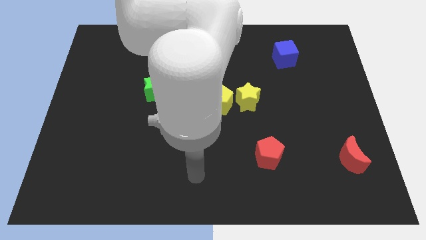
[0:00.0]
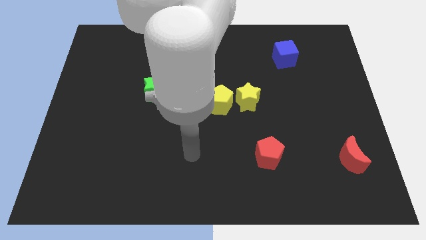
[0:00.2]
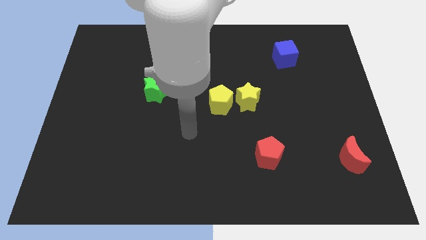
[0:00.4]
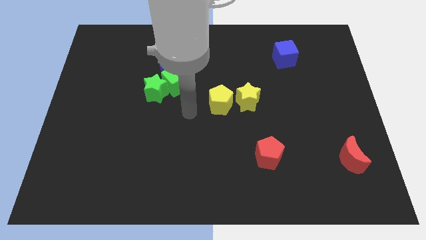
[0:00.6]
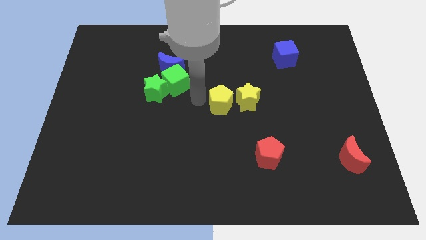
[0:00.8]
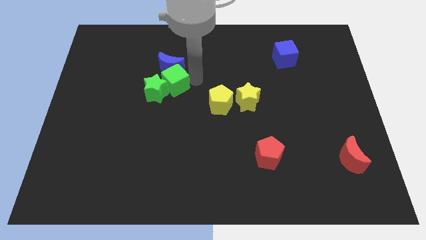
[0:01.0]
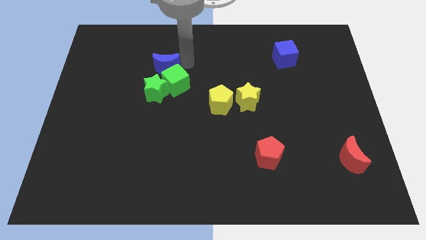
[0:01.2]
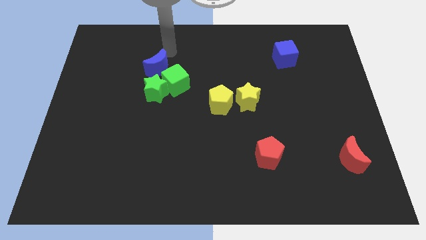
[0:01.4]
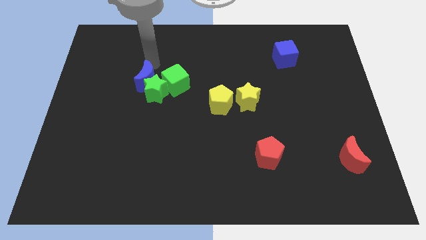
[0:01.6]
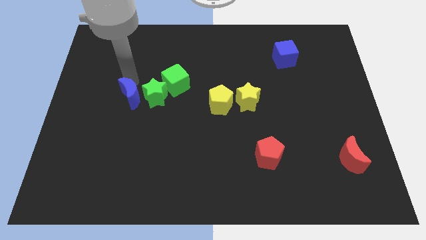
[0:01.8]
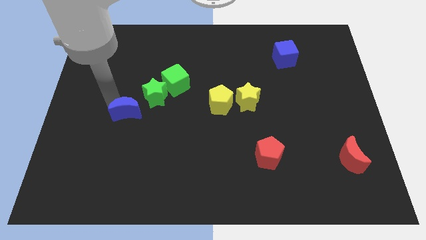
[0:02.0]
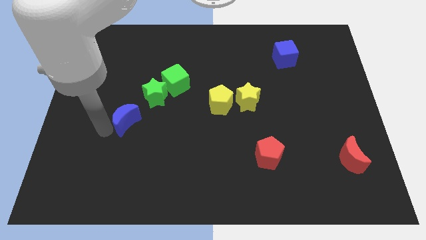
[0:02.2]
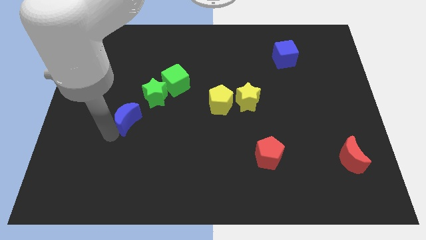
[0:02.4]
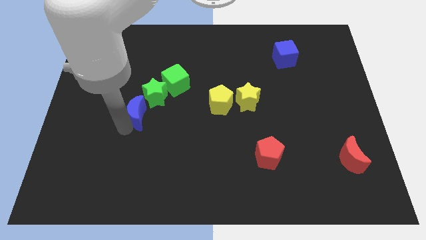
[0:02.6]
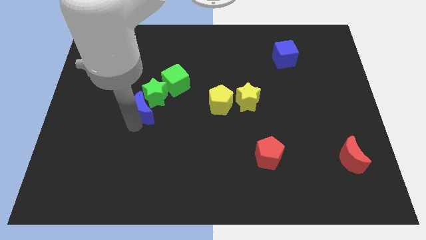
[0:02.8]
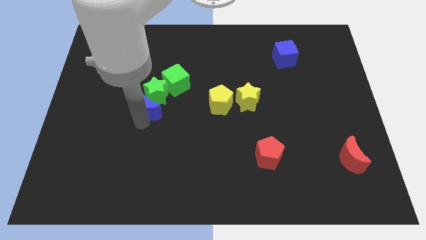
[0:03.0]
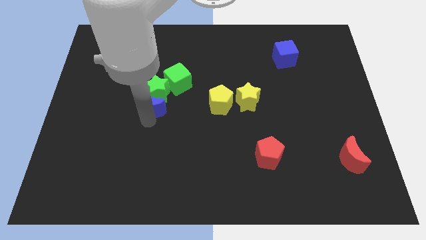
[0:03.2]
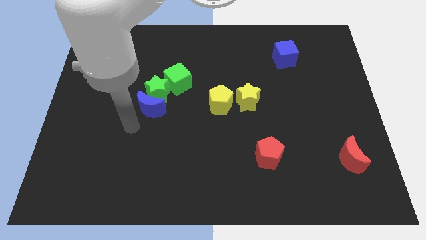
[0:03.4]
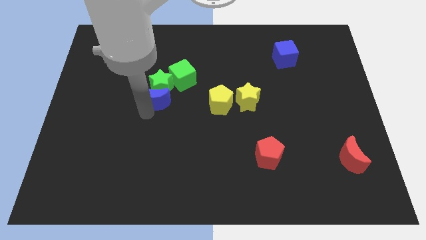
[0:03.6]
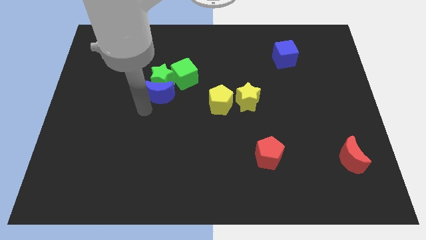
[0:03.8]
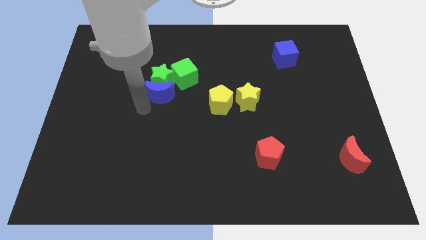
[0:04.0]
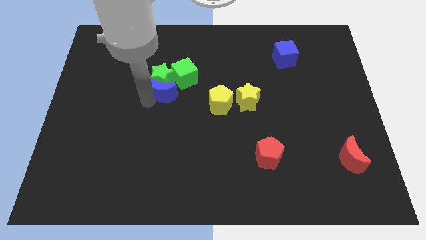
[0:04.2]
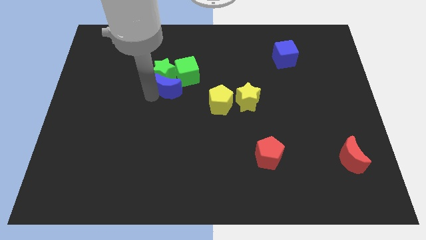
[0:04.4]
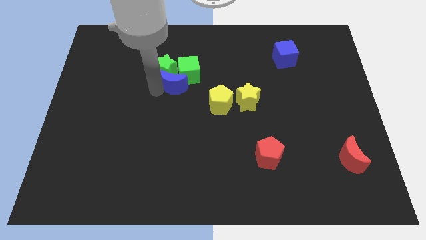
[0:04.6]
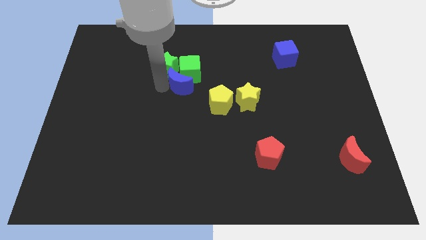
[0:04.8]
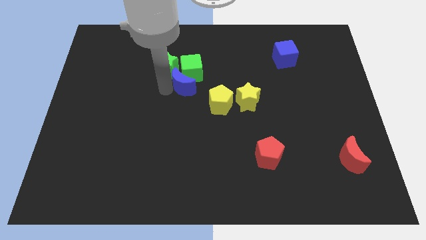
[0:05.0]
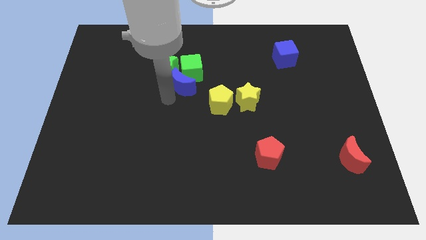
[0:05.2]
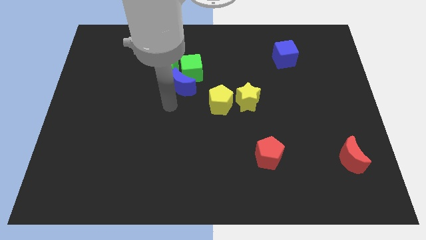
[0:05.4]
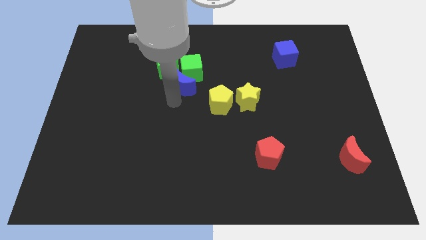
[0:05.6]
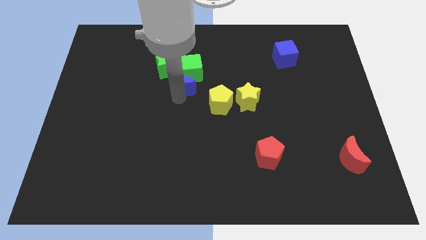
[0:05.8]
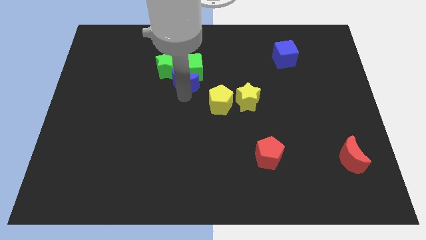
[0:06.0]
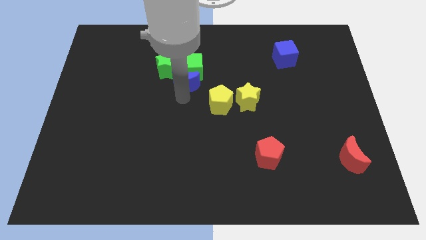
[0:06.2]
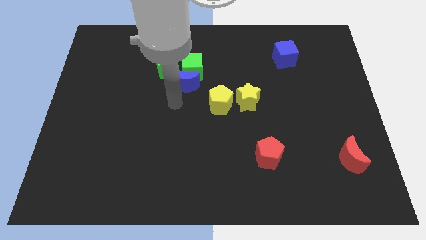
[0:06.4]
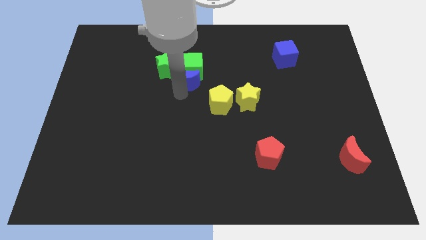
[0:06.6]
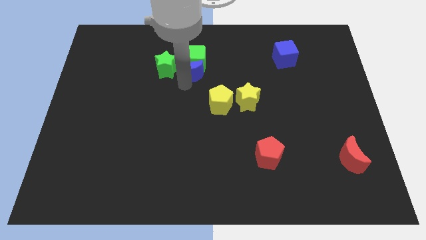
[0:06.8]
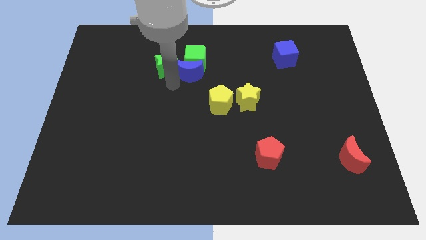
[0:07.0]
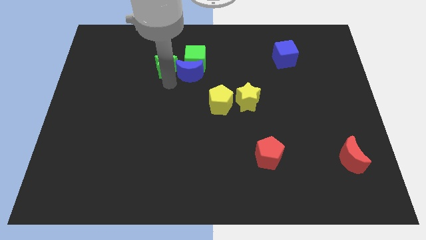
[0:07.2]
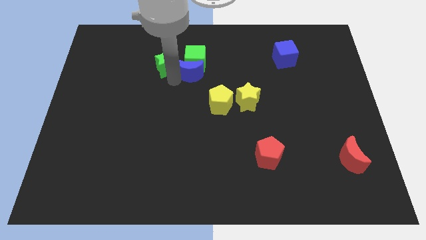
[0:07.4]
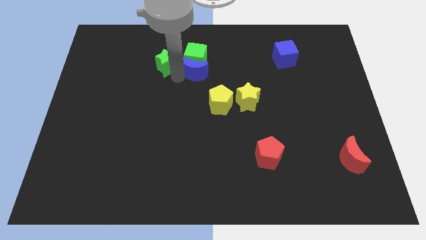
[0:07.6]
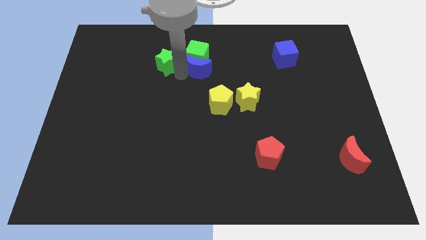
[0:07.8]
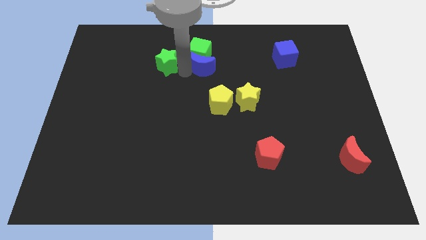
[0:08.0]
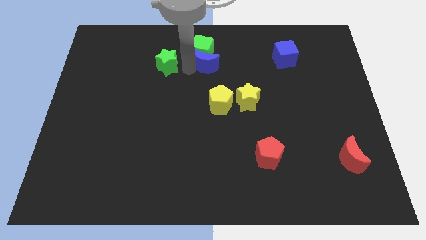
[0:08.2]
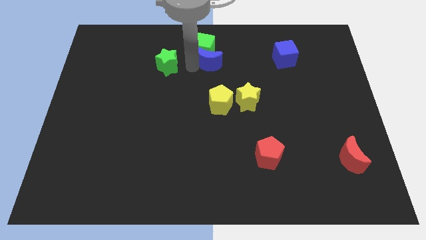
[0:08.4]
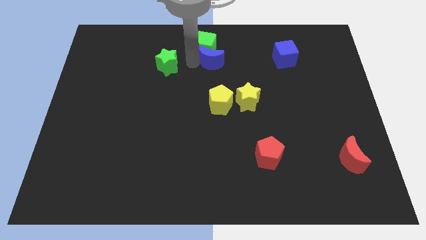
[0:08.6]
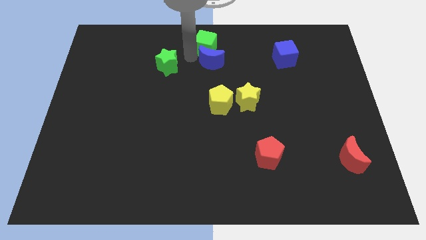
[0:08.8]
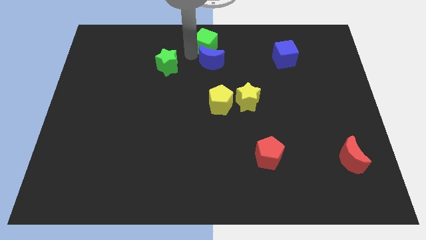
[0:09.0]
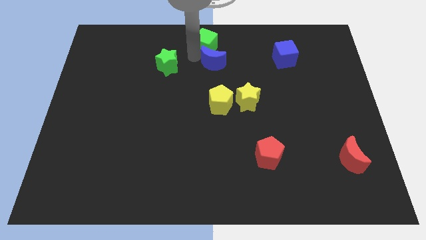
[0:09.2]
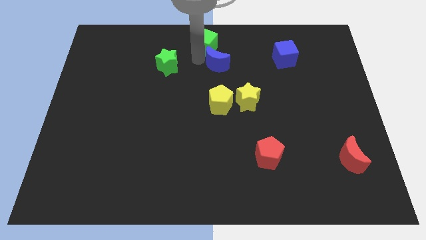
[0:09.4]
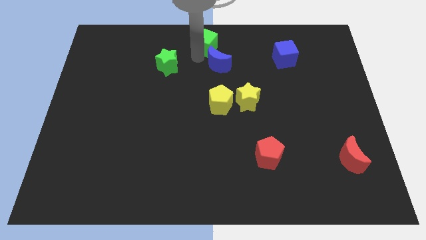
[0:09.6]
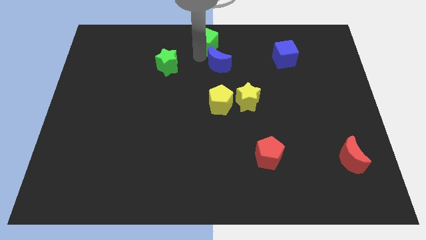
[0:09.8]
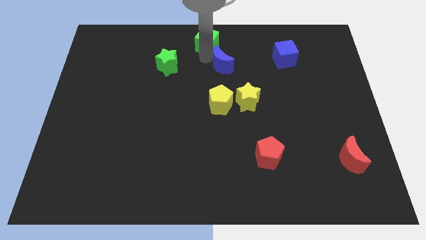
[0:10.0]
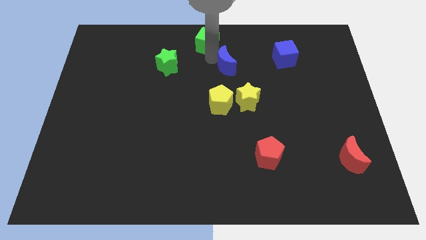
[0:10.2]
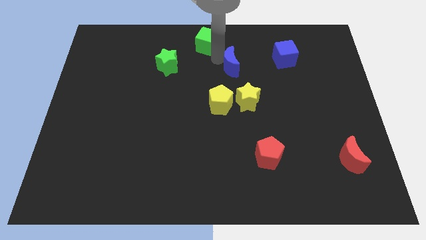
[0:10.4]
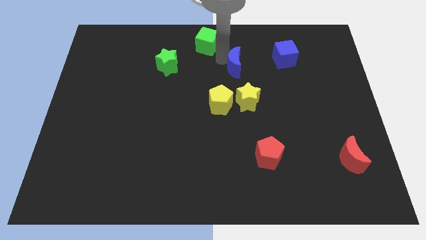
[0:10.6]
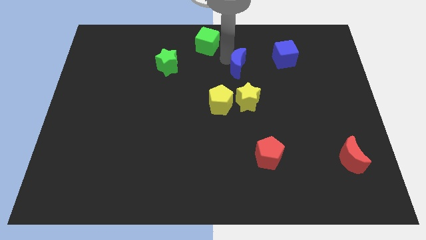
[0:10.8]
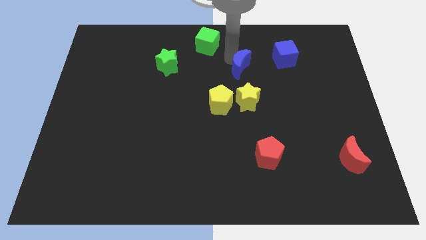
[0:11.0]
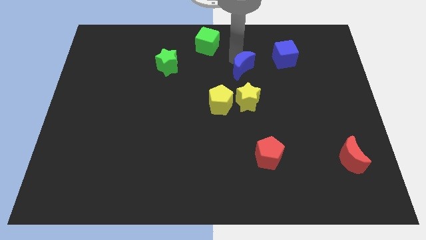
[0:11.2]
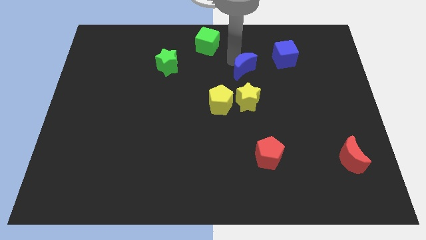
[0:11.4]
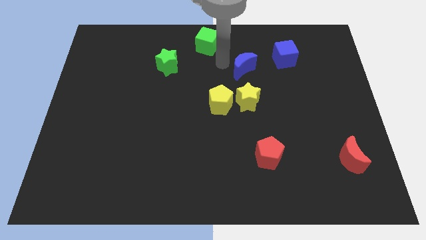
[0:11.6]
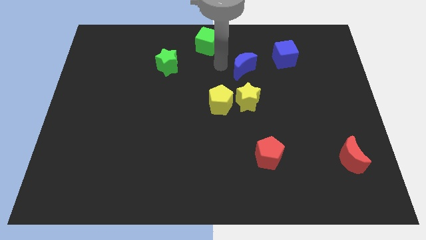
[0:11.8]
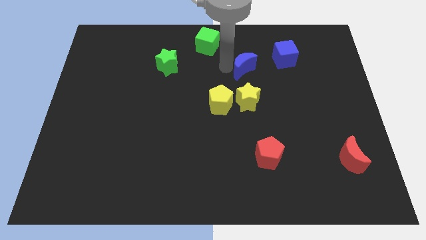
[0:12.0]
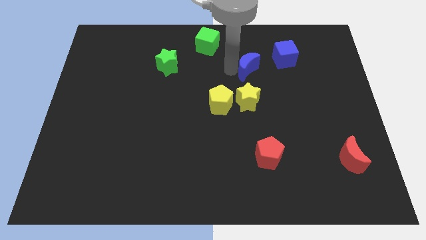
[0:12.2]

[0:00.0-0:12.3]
push the blue moon to the bottom left side of the blue cube

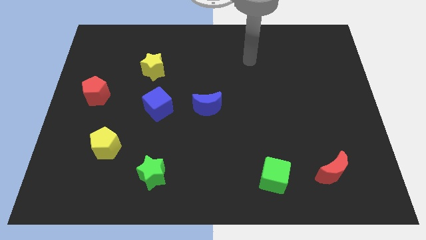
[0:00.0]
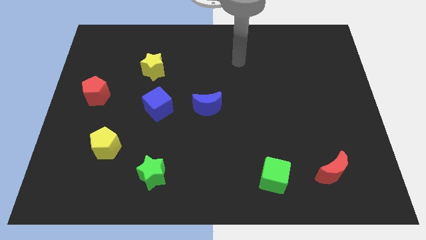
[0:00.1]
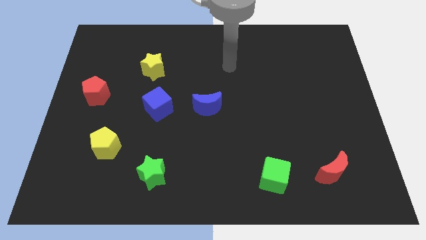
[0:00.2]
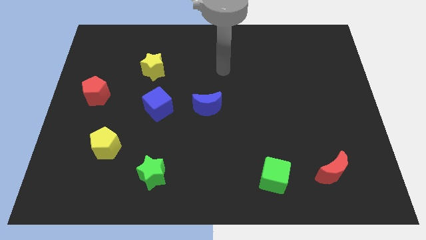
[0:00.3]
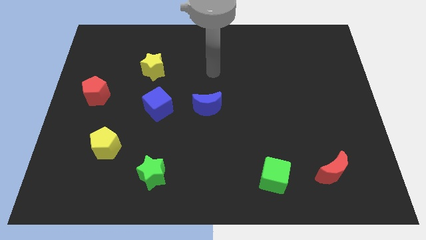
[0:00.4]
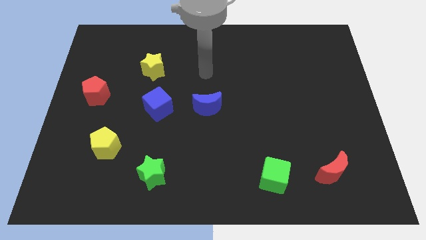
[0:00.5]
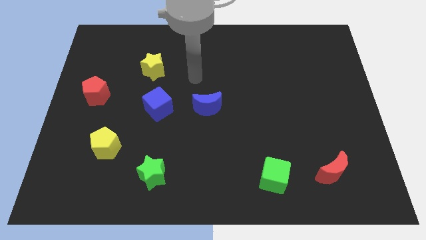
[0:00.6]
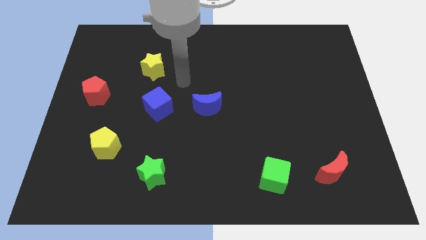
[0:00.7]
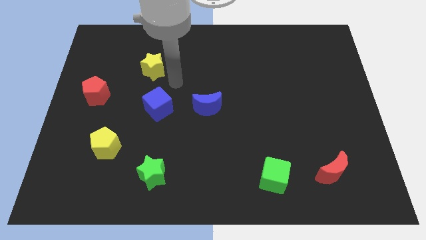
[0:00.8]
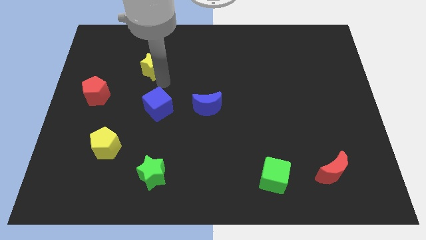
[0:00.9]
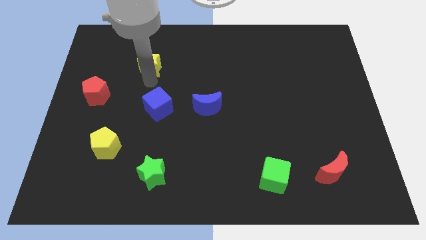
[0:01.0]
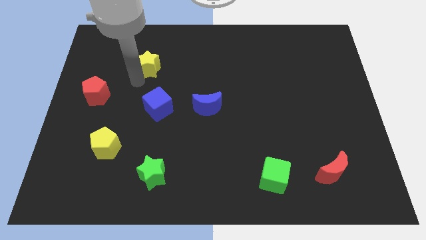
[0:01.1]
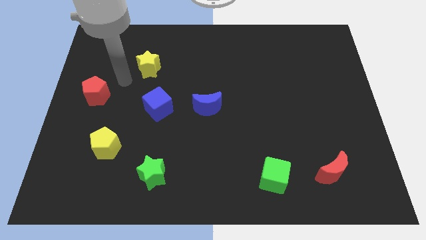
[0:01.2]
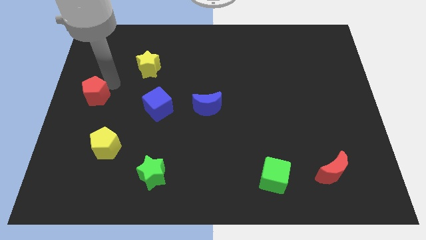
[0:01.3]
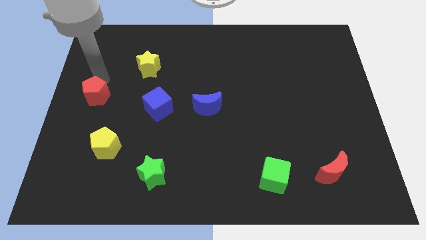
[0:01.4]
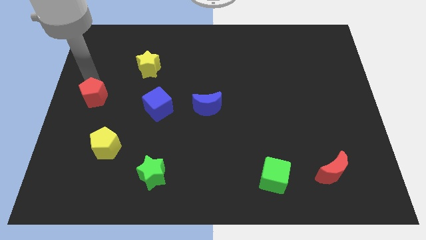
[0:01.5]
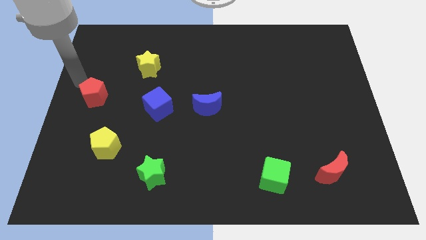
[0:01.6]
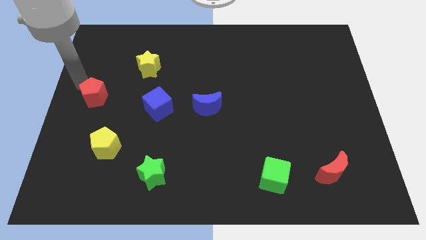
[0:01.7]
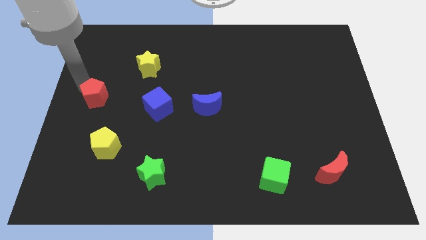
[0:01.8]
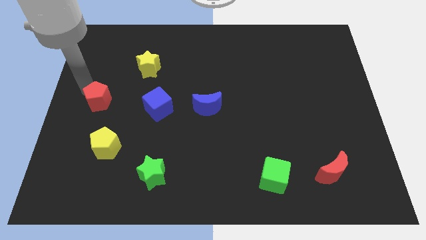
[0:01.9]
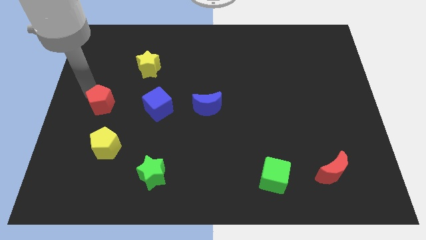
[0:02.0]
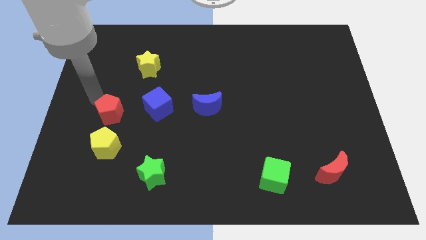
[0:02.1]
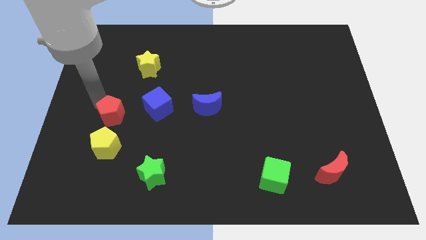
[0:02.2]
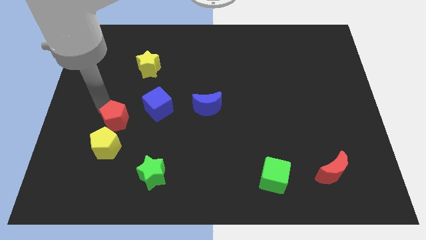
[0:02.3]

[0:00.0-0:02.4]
push the red pentagon diagonally up and to the right of the yellow pentagon
